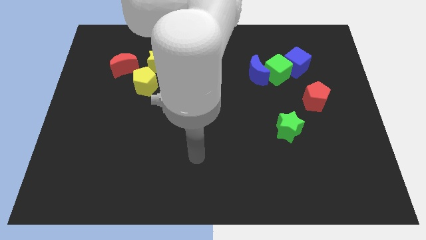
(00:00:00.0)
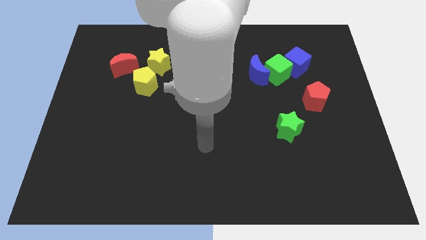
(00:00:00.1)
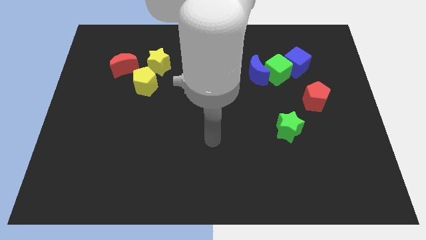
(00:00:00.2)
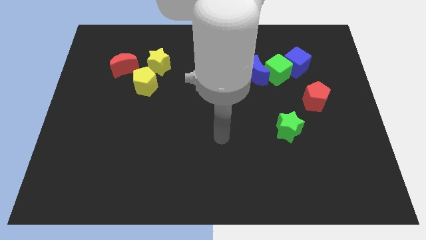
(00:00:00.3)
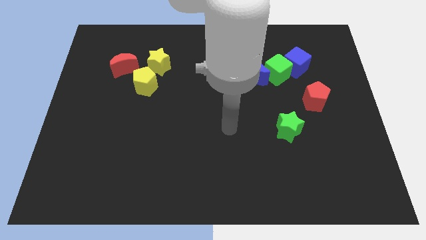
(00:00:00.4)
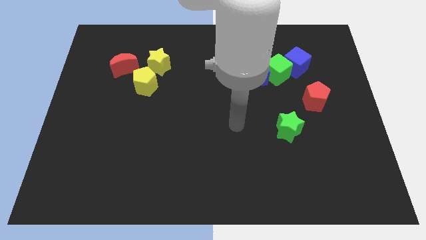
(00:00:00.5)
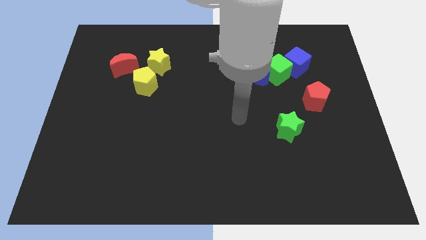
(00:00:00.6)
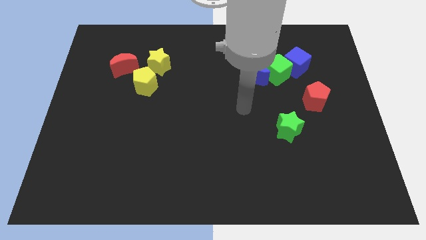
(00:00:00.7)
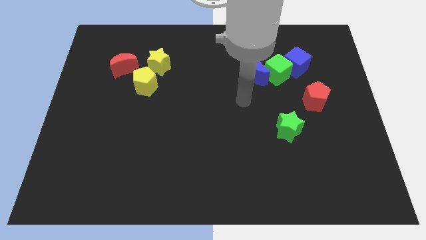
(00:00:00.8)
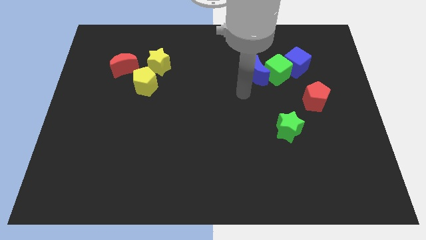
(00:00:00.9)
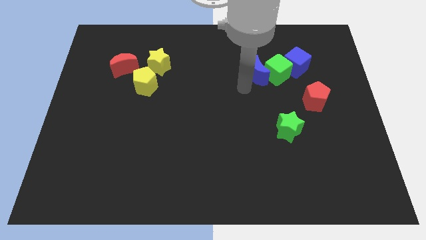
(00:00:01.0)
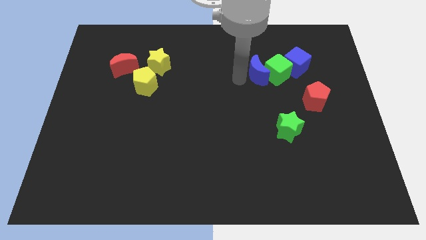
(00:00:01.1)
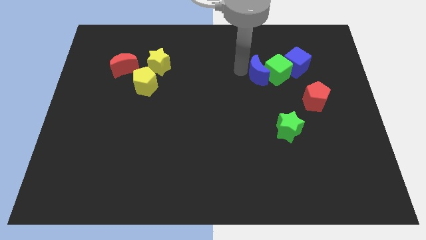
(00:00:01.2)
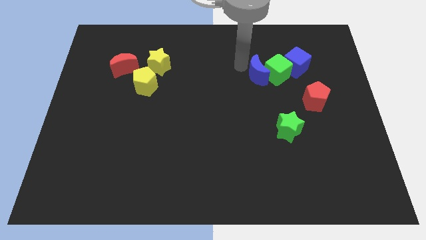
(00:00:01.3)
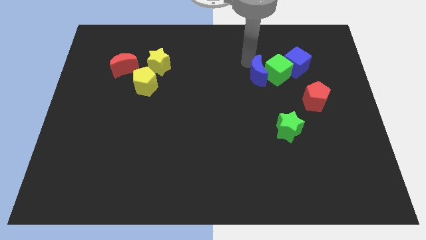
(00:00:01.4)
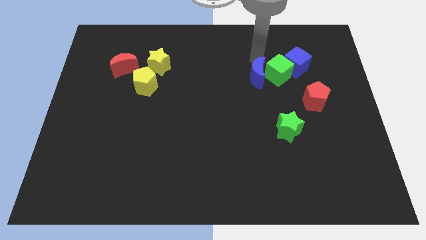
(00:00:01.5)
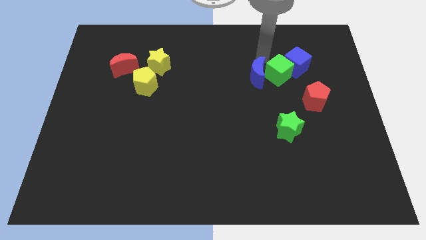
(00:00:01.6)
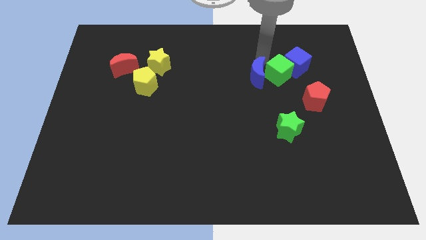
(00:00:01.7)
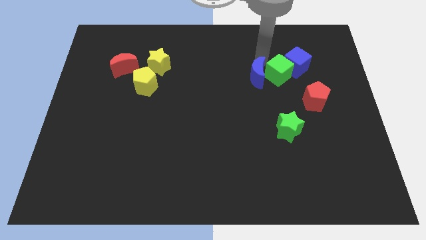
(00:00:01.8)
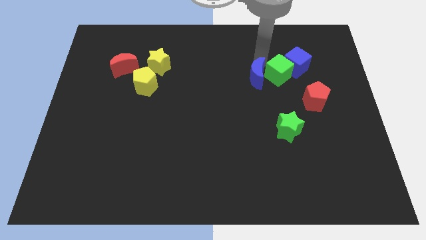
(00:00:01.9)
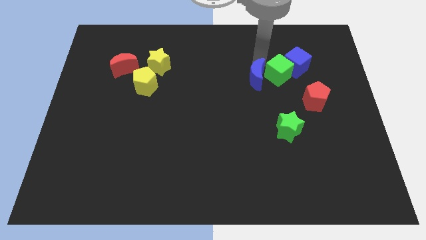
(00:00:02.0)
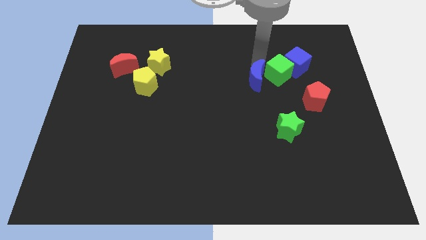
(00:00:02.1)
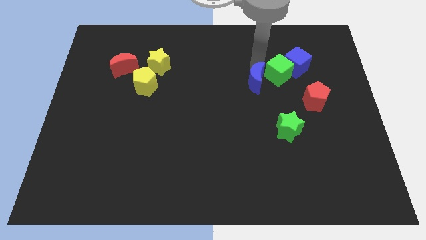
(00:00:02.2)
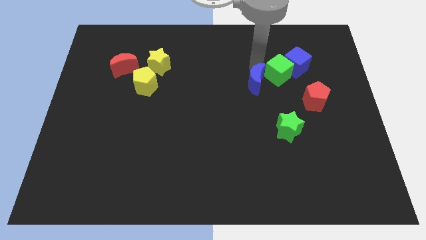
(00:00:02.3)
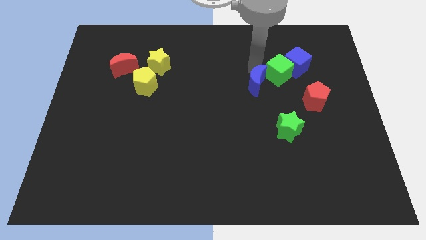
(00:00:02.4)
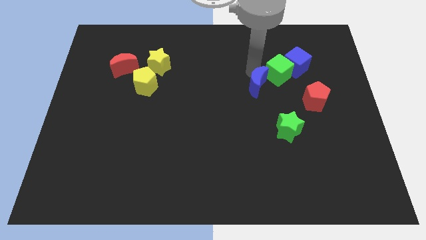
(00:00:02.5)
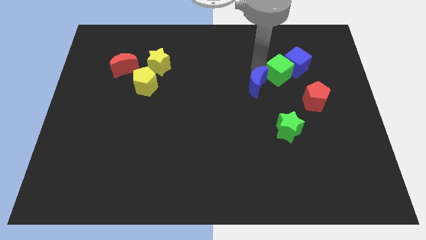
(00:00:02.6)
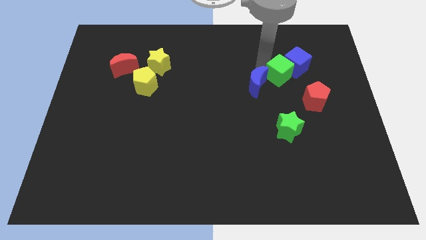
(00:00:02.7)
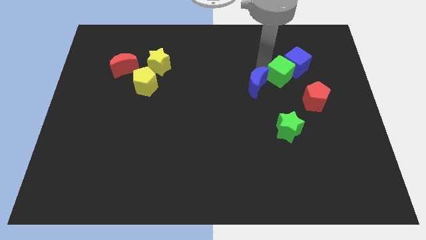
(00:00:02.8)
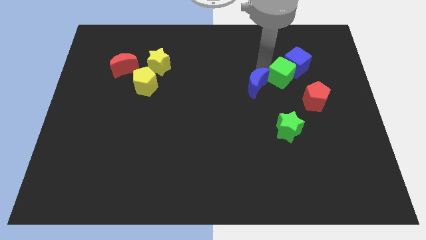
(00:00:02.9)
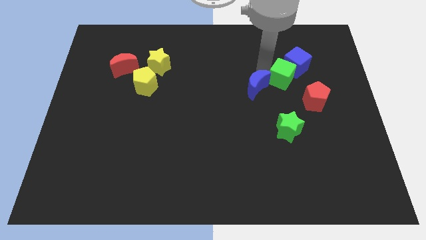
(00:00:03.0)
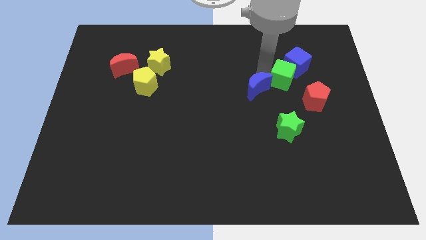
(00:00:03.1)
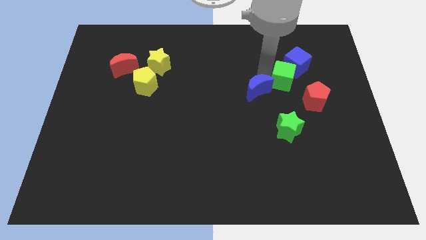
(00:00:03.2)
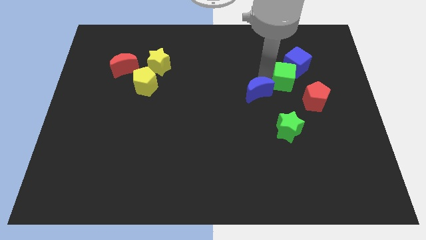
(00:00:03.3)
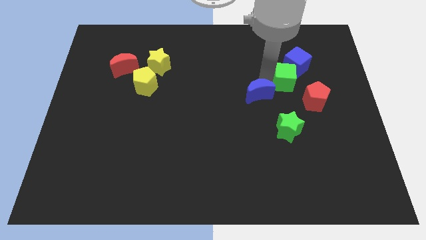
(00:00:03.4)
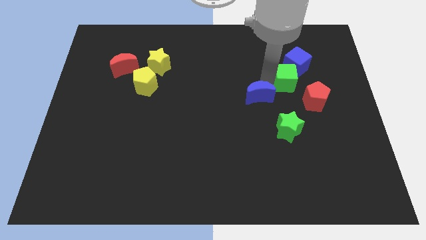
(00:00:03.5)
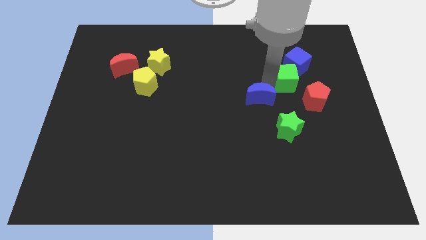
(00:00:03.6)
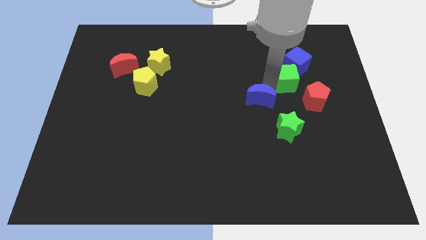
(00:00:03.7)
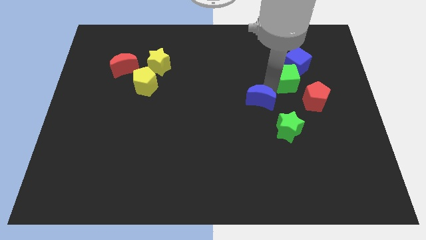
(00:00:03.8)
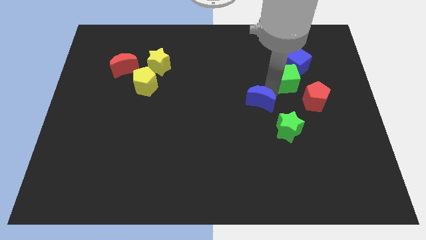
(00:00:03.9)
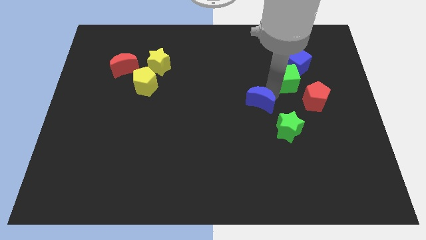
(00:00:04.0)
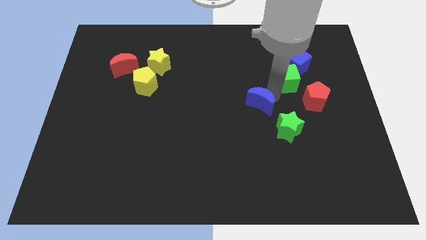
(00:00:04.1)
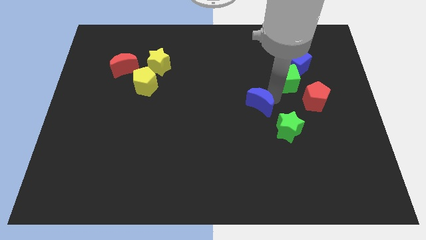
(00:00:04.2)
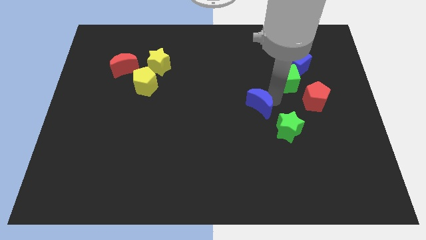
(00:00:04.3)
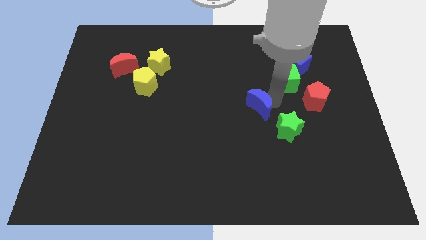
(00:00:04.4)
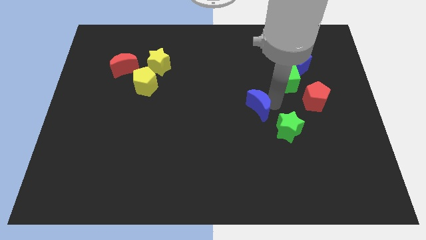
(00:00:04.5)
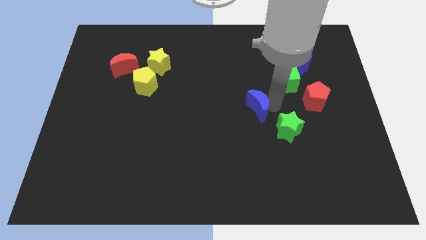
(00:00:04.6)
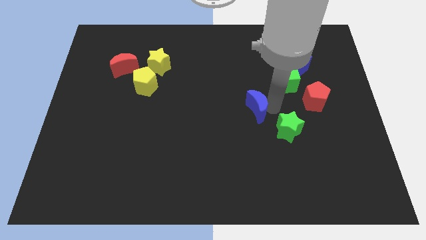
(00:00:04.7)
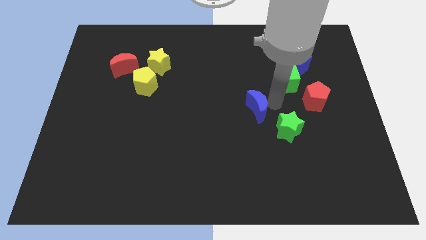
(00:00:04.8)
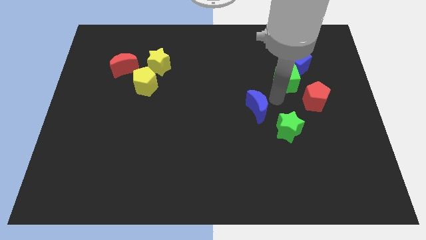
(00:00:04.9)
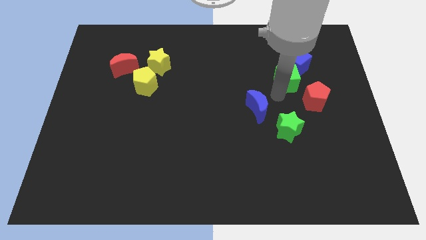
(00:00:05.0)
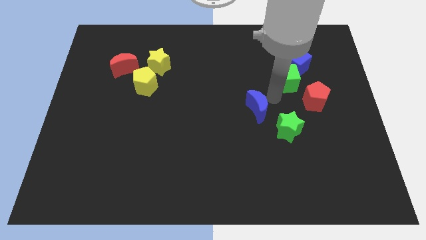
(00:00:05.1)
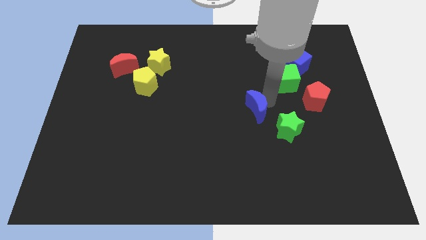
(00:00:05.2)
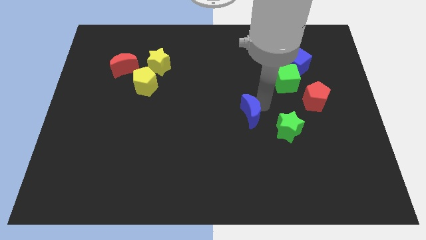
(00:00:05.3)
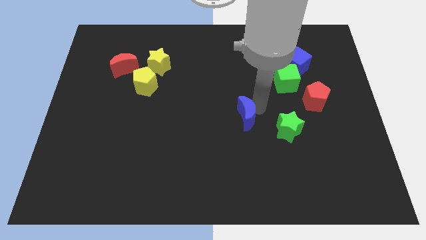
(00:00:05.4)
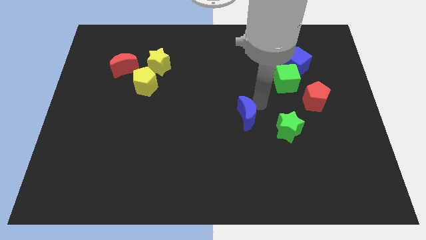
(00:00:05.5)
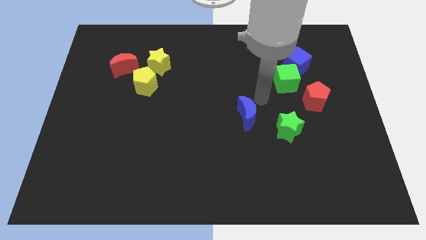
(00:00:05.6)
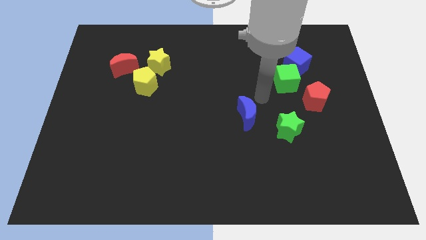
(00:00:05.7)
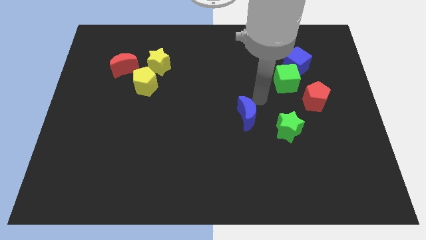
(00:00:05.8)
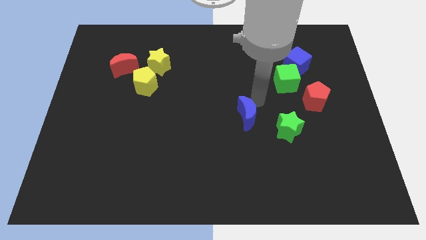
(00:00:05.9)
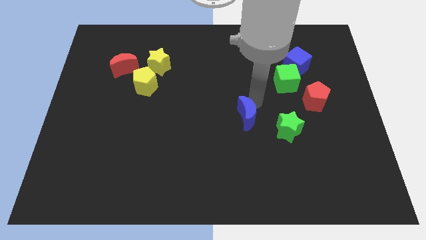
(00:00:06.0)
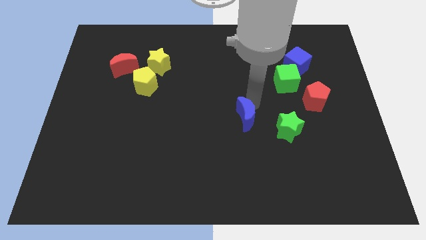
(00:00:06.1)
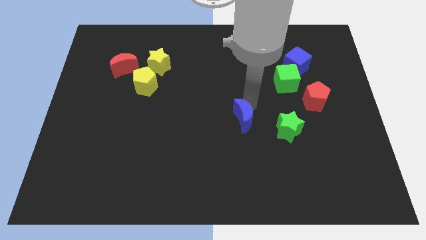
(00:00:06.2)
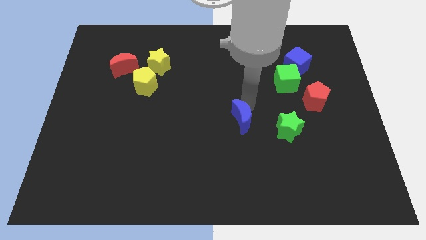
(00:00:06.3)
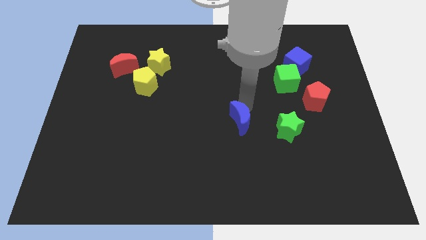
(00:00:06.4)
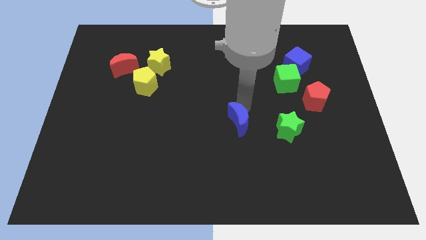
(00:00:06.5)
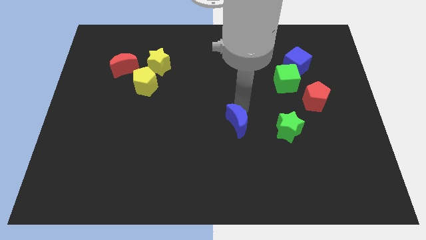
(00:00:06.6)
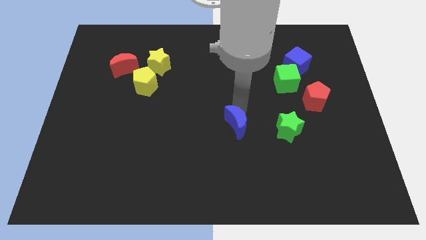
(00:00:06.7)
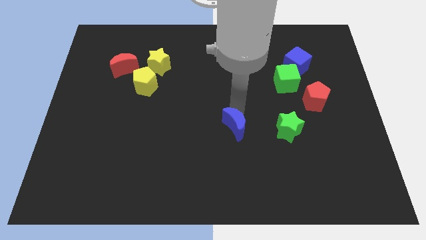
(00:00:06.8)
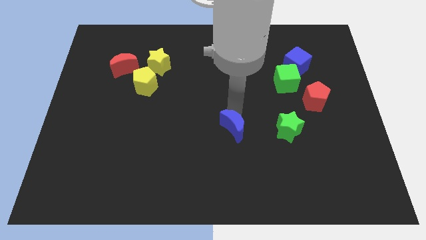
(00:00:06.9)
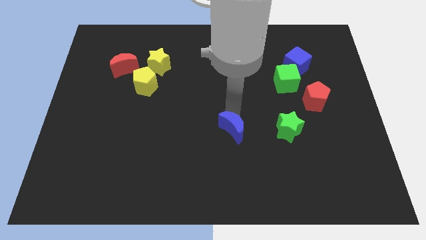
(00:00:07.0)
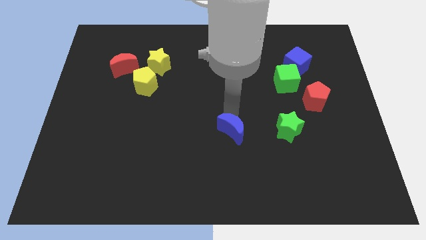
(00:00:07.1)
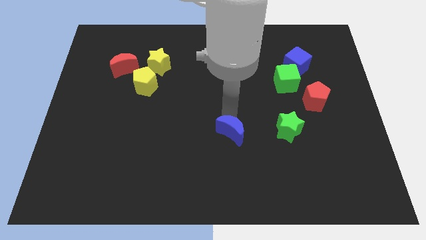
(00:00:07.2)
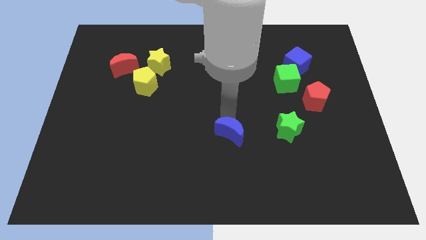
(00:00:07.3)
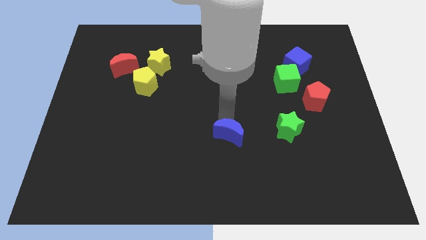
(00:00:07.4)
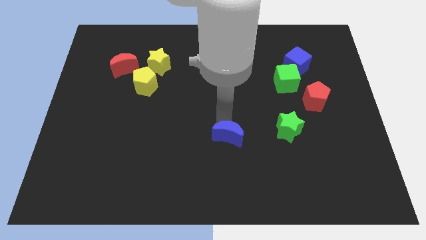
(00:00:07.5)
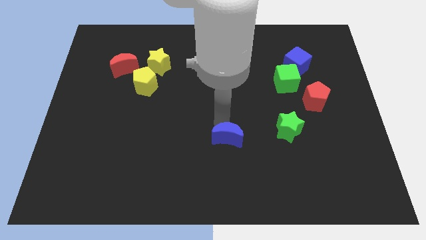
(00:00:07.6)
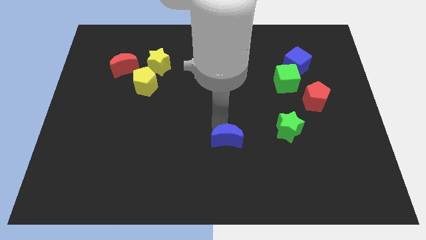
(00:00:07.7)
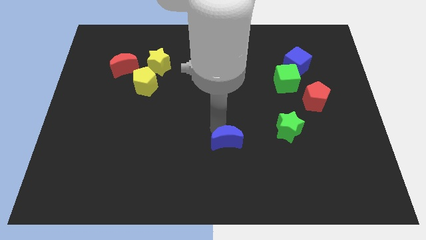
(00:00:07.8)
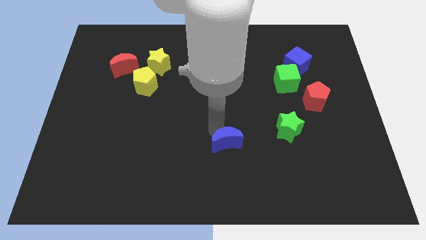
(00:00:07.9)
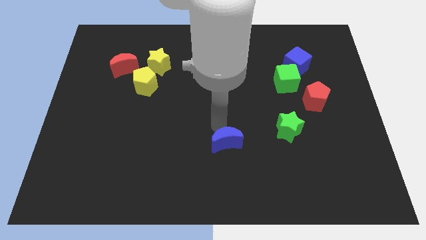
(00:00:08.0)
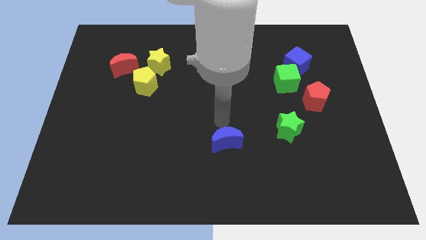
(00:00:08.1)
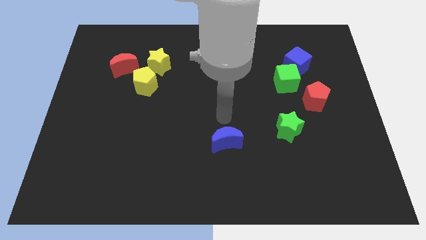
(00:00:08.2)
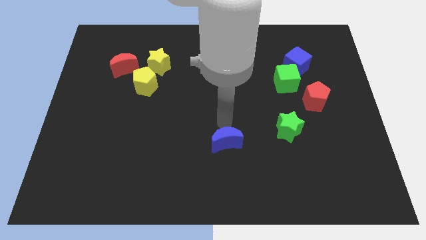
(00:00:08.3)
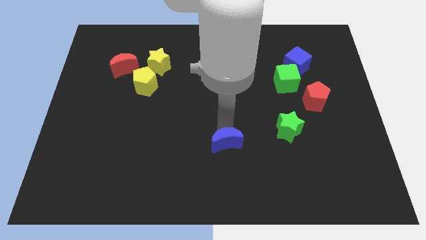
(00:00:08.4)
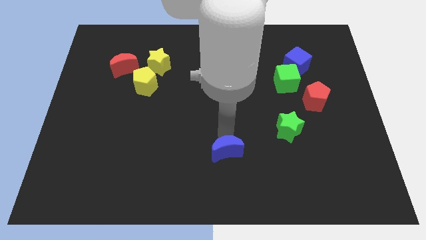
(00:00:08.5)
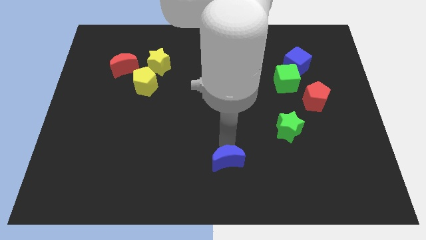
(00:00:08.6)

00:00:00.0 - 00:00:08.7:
put the blue moon to the bottom
